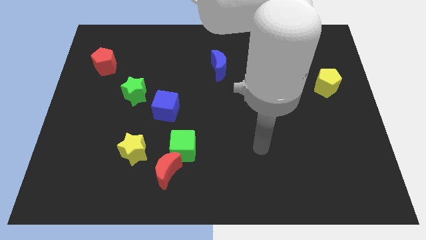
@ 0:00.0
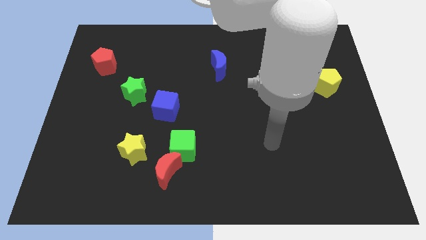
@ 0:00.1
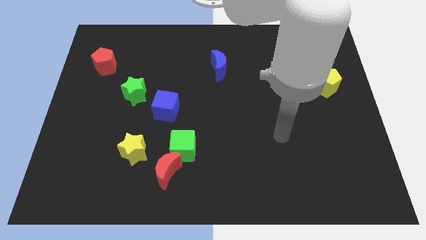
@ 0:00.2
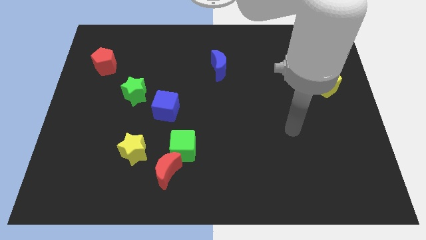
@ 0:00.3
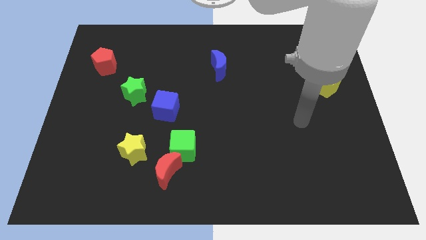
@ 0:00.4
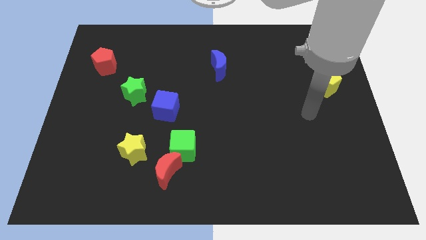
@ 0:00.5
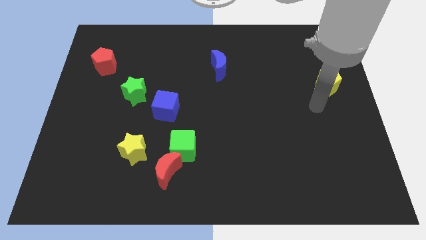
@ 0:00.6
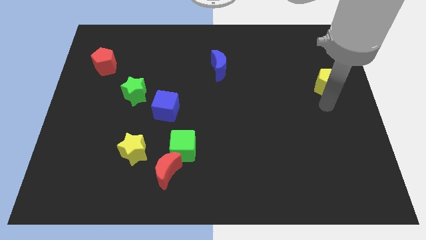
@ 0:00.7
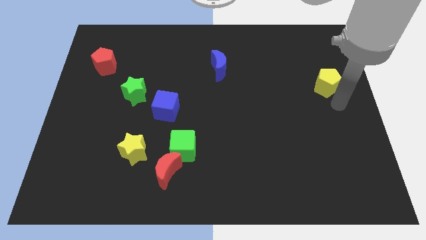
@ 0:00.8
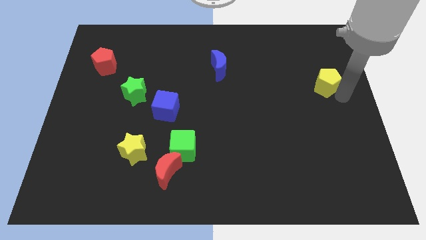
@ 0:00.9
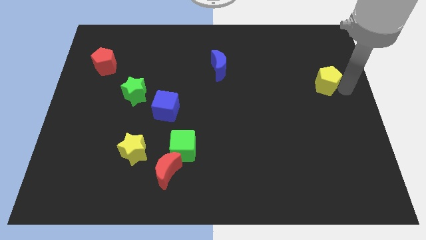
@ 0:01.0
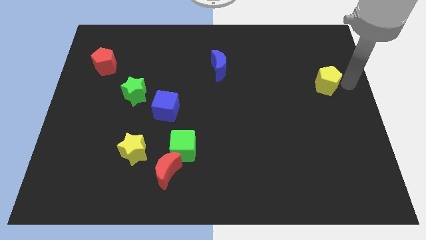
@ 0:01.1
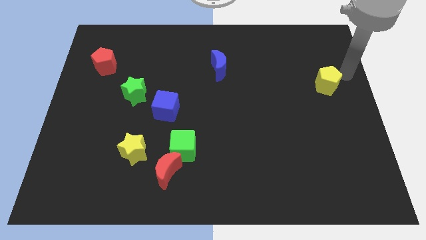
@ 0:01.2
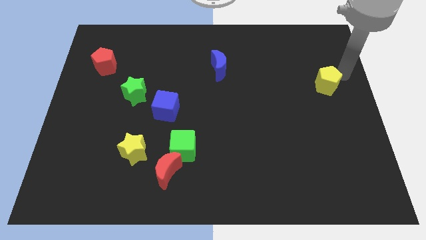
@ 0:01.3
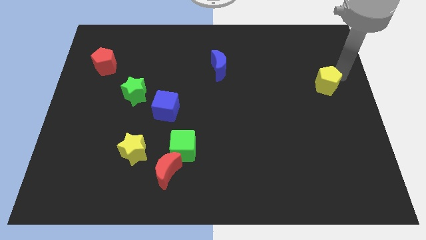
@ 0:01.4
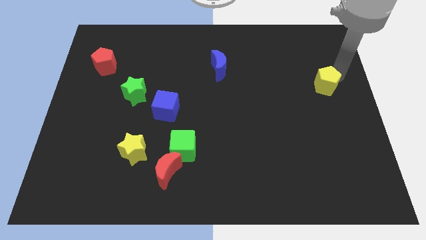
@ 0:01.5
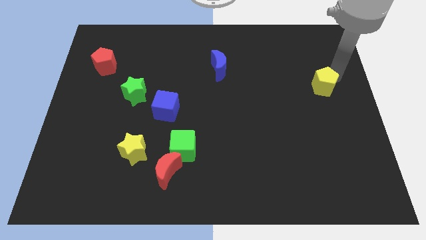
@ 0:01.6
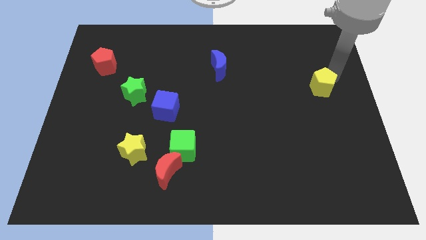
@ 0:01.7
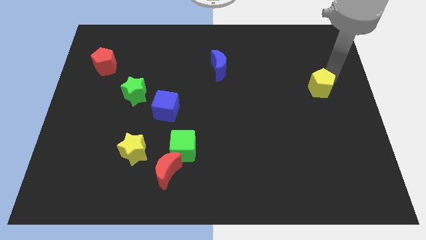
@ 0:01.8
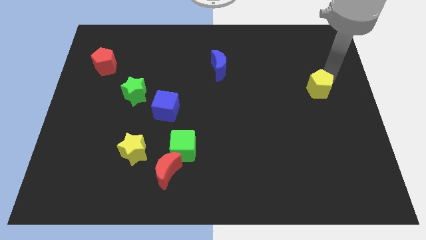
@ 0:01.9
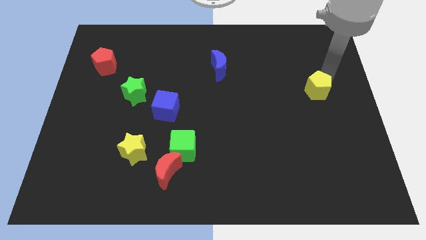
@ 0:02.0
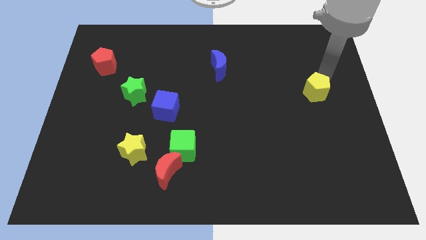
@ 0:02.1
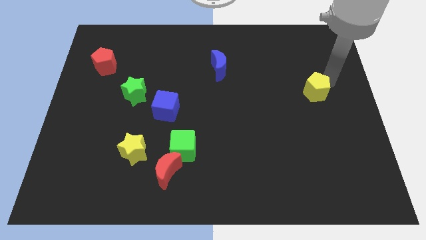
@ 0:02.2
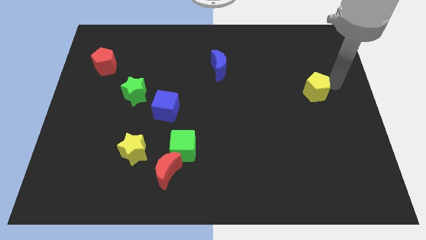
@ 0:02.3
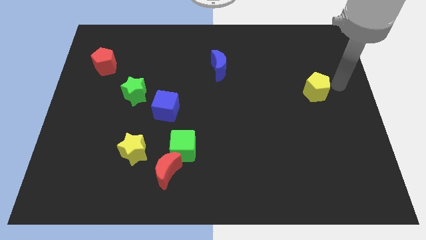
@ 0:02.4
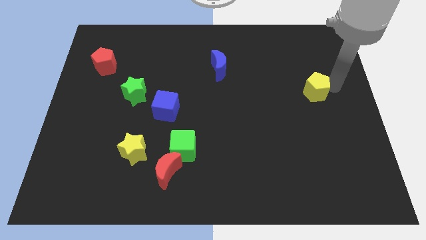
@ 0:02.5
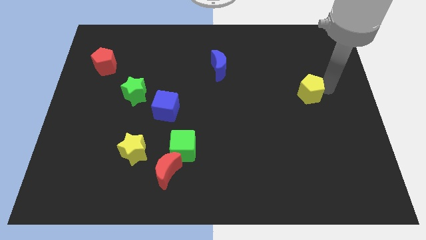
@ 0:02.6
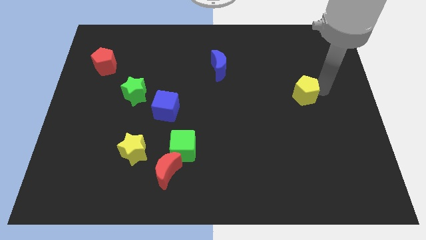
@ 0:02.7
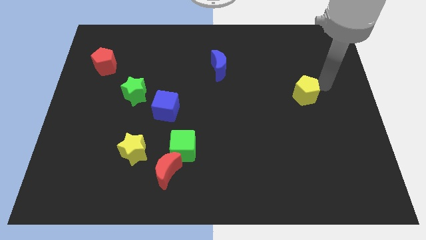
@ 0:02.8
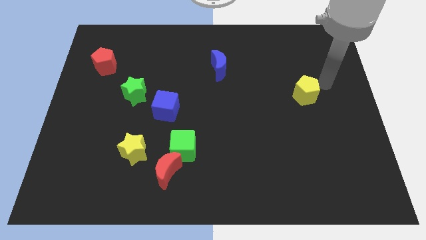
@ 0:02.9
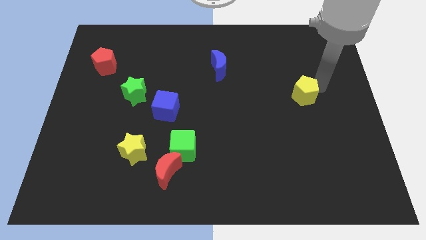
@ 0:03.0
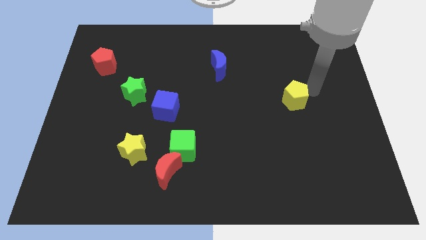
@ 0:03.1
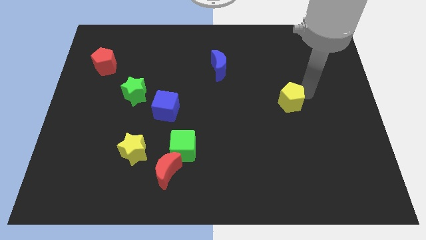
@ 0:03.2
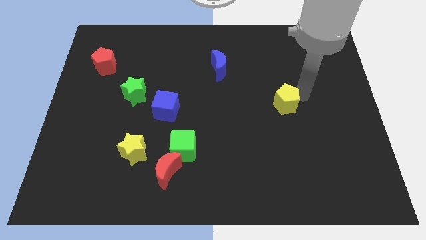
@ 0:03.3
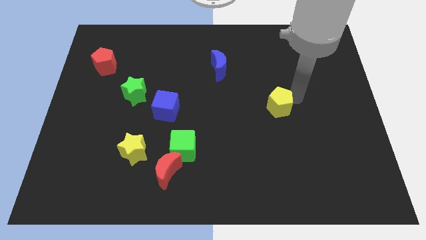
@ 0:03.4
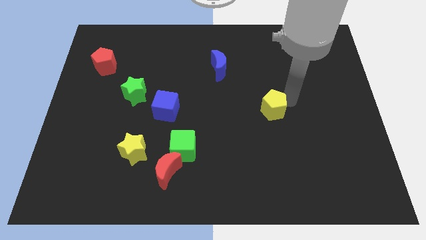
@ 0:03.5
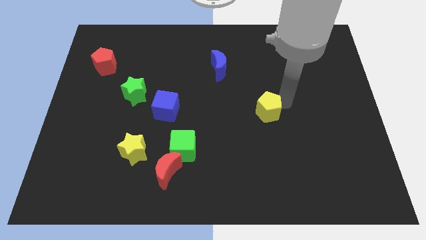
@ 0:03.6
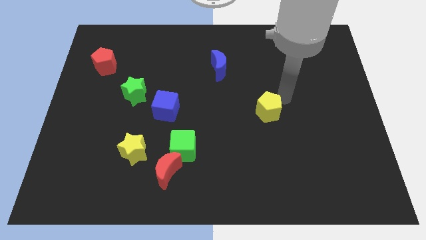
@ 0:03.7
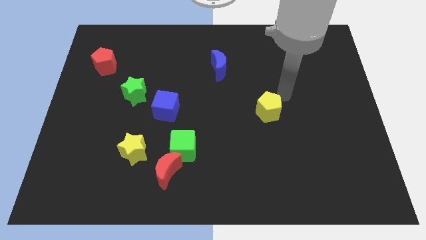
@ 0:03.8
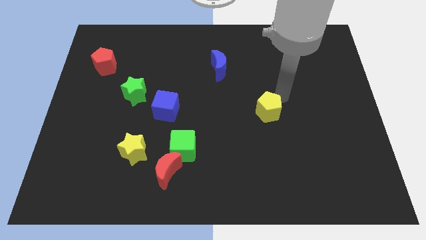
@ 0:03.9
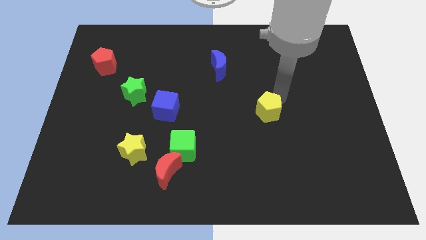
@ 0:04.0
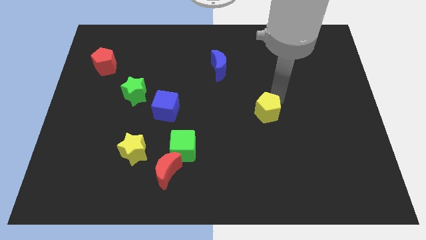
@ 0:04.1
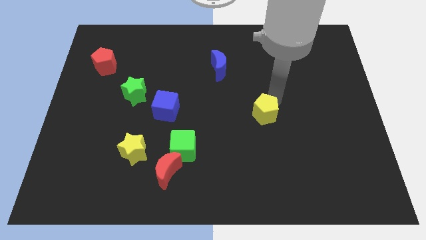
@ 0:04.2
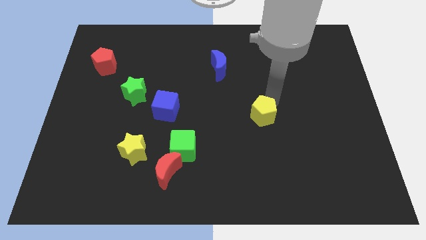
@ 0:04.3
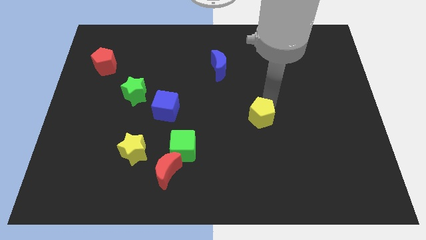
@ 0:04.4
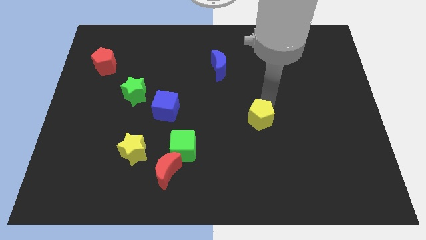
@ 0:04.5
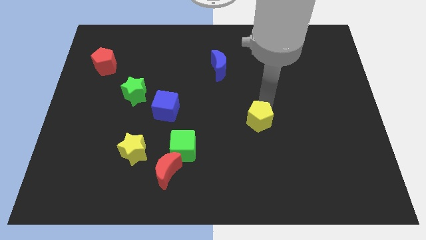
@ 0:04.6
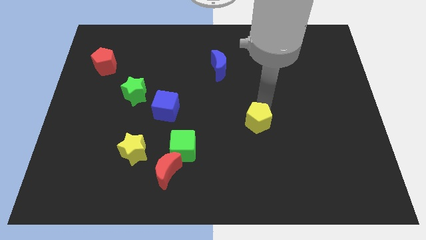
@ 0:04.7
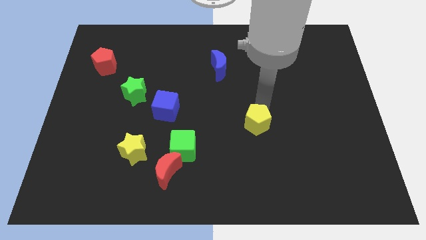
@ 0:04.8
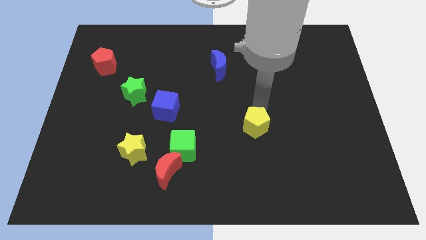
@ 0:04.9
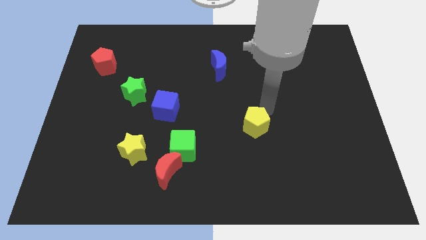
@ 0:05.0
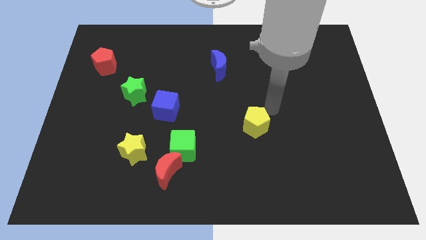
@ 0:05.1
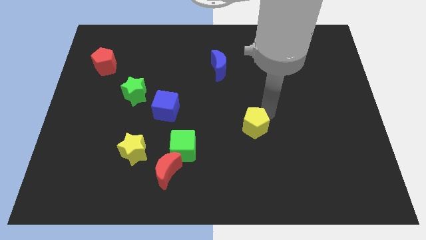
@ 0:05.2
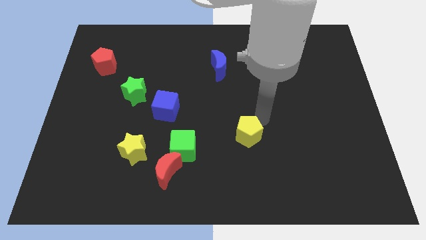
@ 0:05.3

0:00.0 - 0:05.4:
push the yellow pentagon to the right side of the green cube

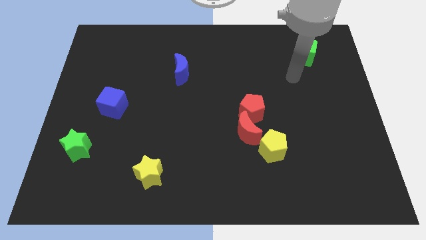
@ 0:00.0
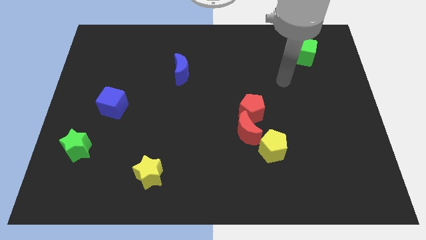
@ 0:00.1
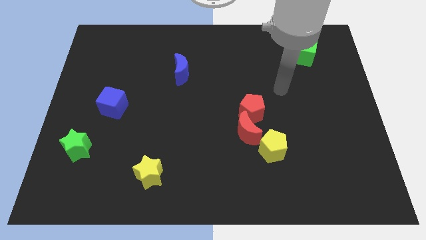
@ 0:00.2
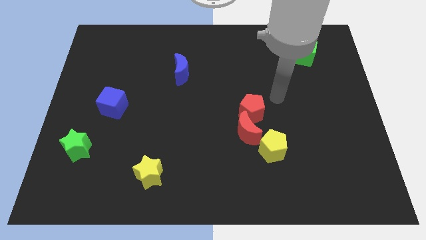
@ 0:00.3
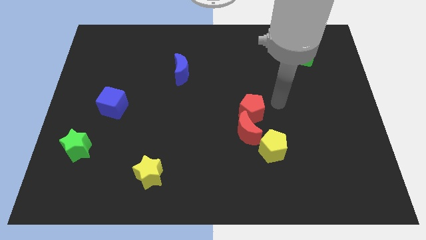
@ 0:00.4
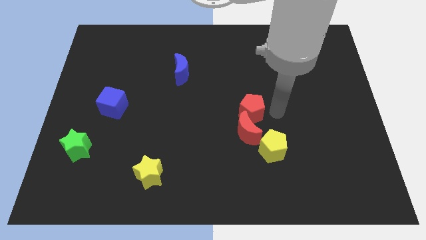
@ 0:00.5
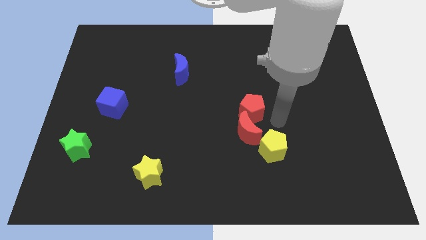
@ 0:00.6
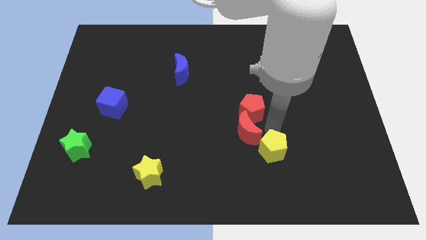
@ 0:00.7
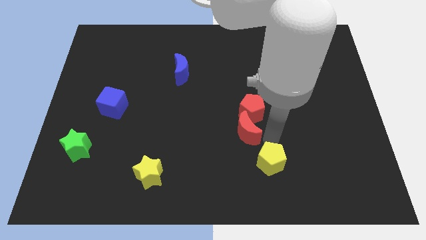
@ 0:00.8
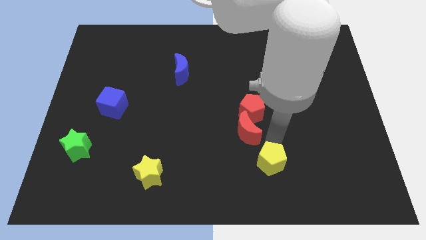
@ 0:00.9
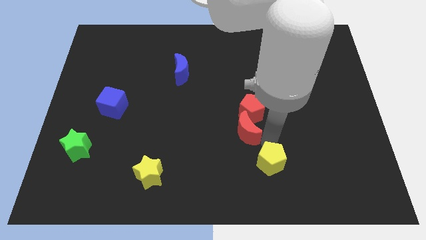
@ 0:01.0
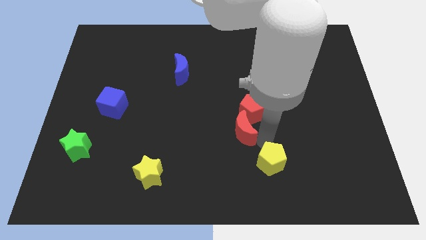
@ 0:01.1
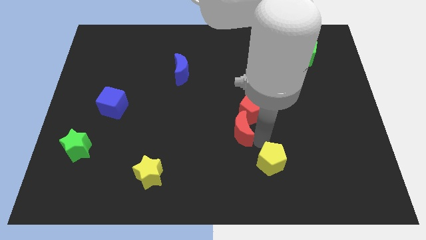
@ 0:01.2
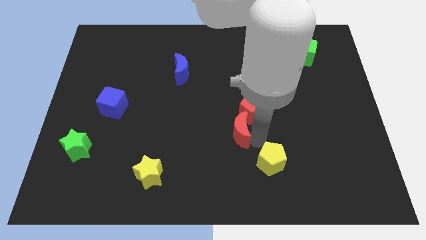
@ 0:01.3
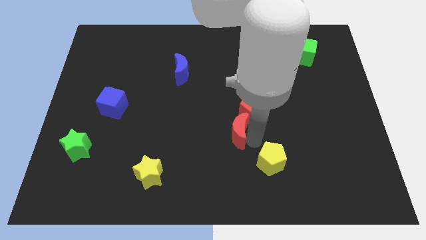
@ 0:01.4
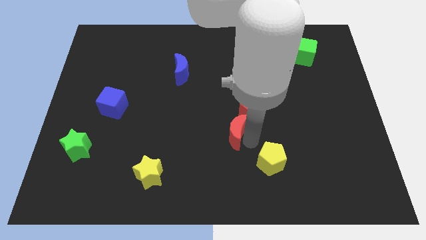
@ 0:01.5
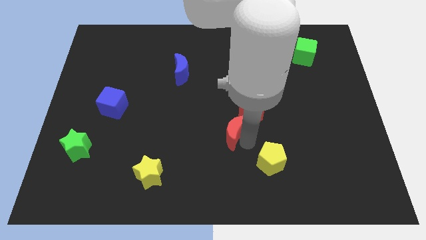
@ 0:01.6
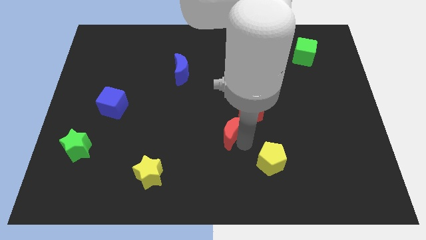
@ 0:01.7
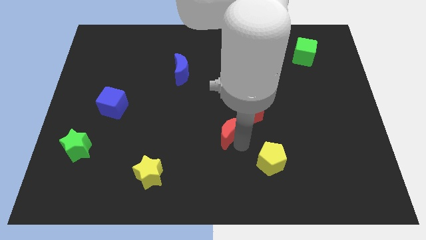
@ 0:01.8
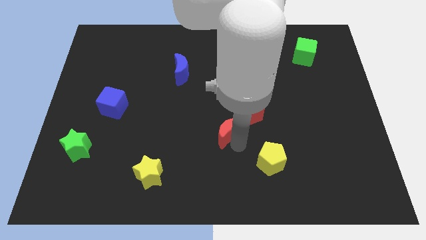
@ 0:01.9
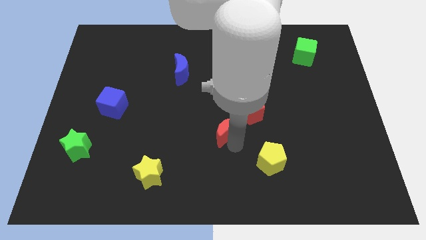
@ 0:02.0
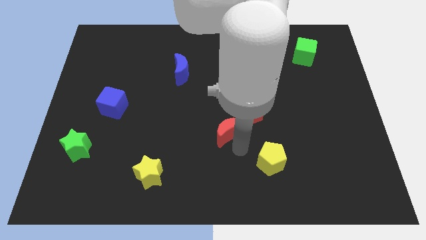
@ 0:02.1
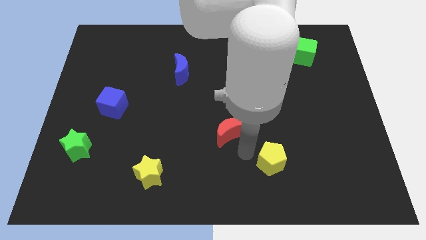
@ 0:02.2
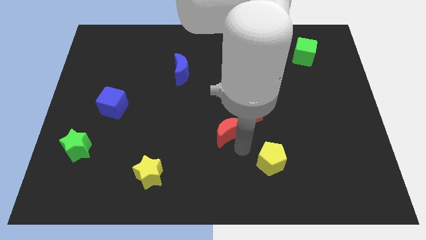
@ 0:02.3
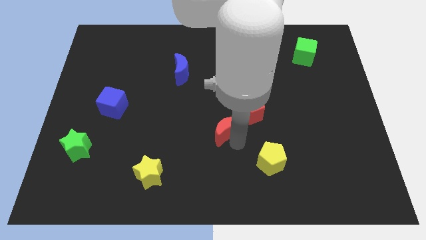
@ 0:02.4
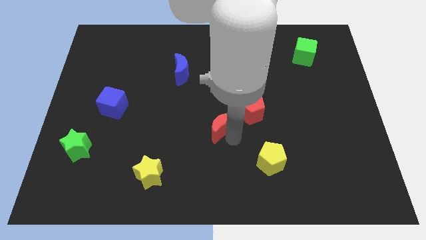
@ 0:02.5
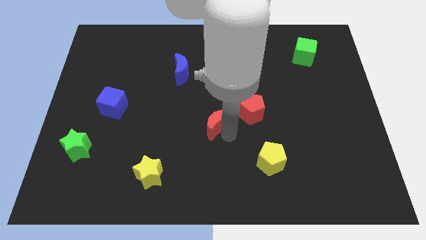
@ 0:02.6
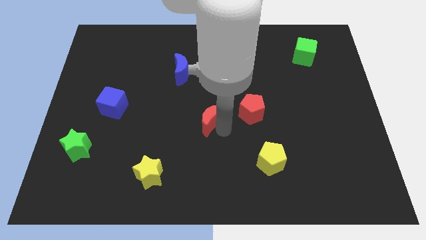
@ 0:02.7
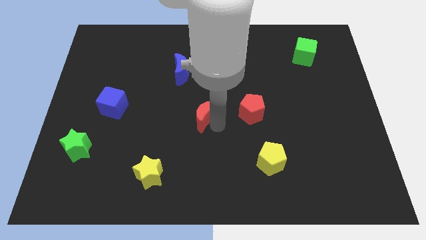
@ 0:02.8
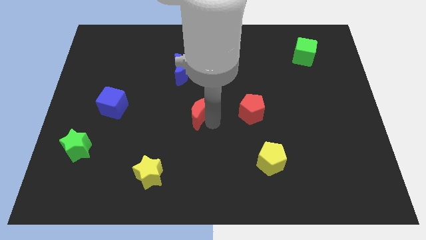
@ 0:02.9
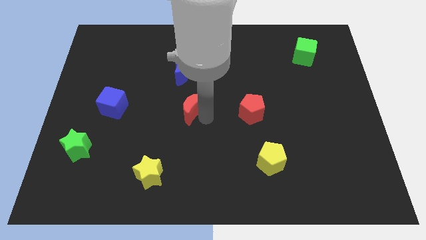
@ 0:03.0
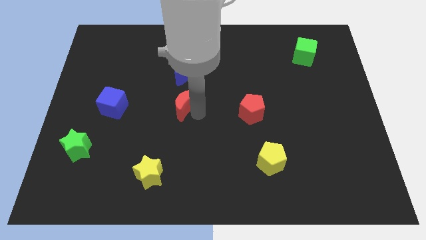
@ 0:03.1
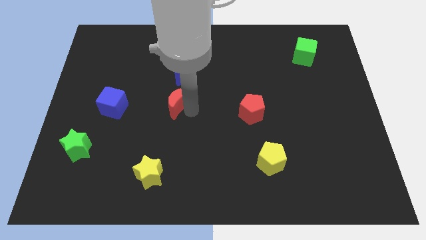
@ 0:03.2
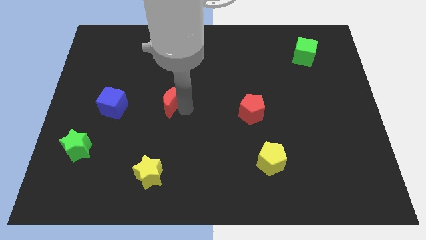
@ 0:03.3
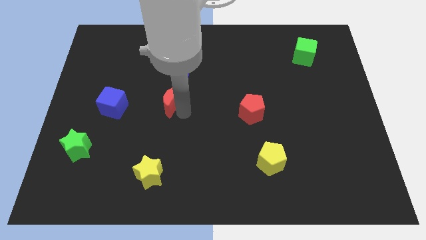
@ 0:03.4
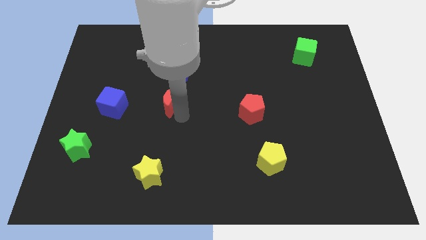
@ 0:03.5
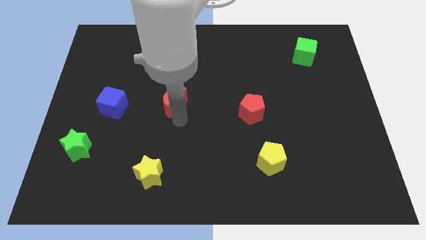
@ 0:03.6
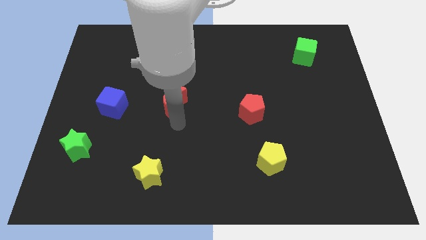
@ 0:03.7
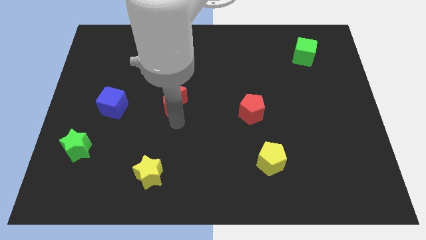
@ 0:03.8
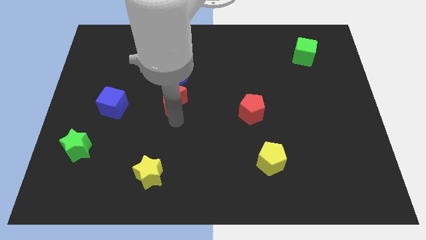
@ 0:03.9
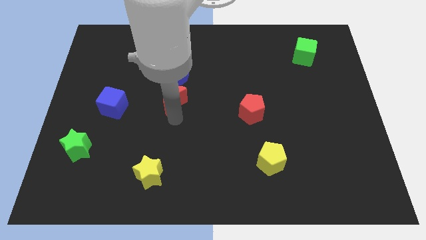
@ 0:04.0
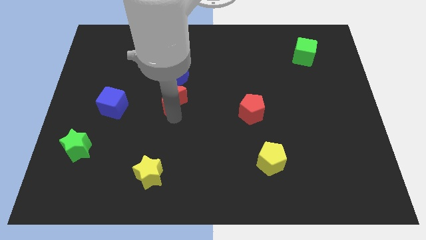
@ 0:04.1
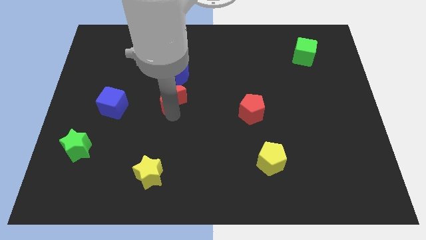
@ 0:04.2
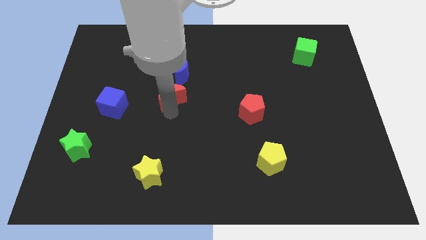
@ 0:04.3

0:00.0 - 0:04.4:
push the red moon diagonally down and to the left of the blue moon
